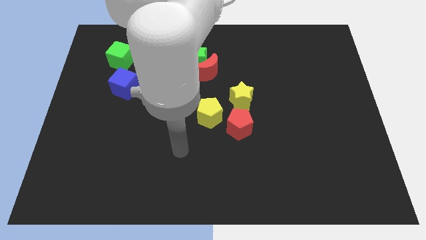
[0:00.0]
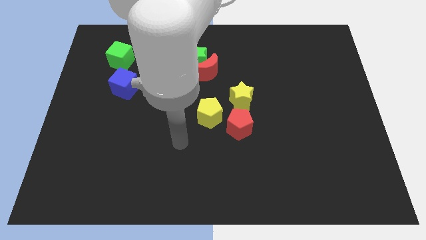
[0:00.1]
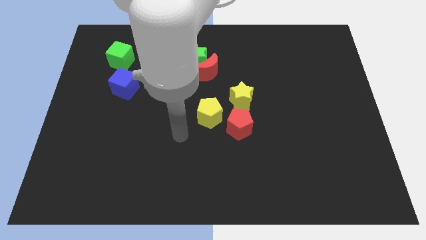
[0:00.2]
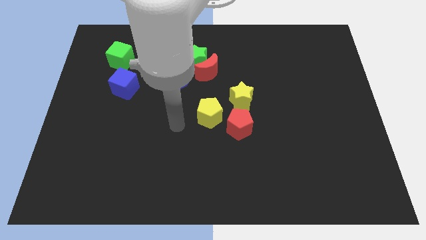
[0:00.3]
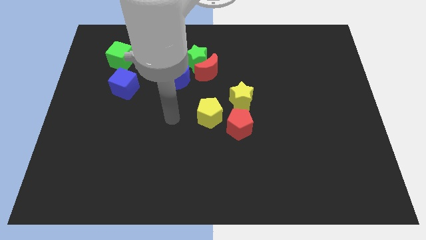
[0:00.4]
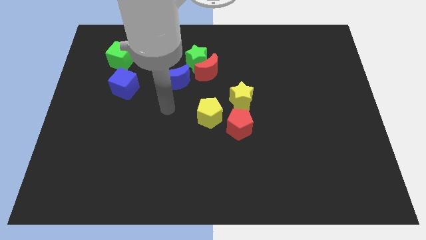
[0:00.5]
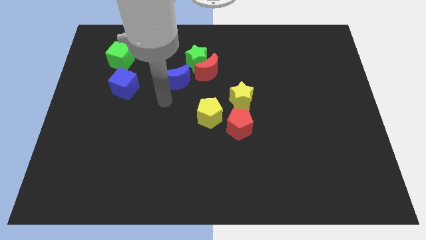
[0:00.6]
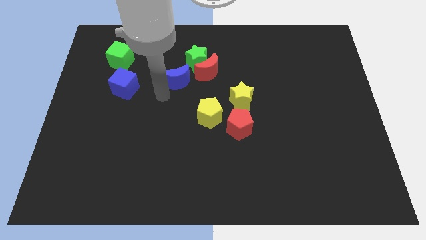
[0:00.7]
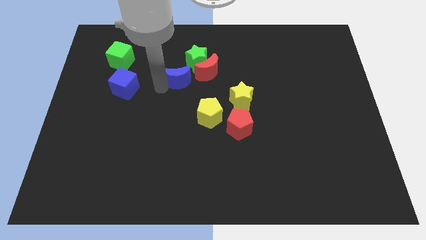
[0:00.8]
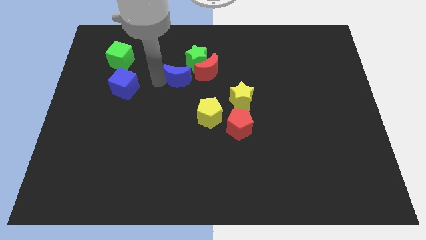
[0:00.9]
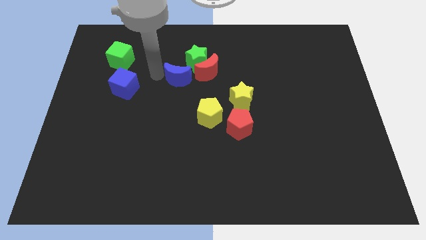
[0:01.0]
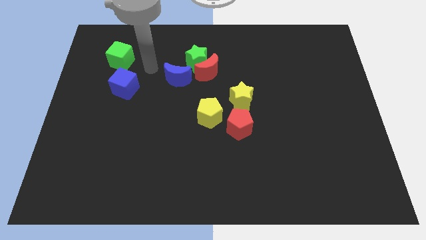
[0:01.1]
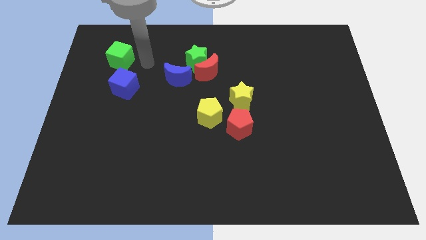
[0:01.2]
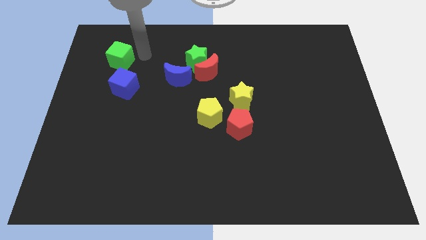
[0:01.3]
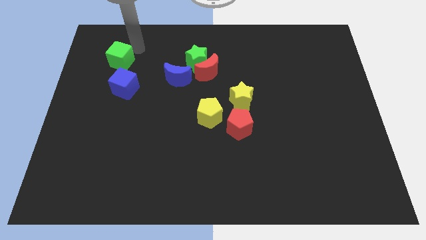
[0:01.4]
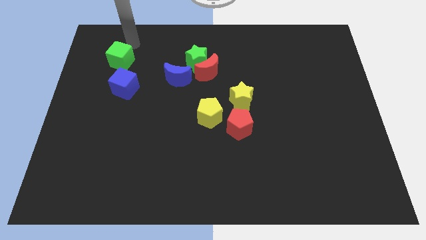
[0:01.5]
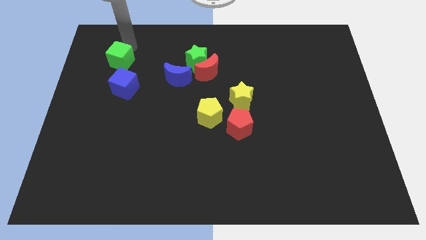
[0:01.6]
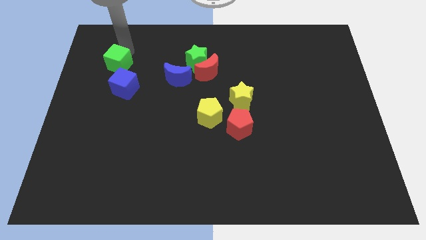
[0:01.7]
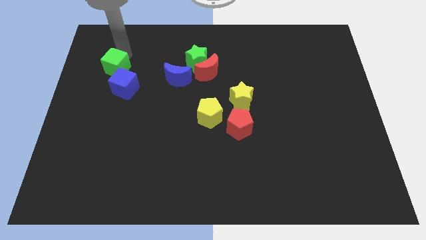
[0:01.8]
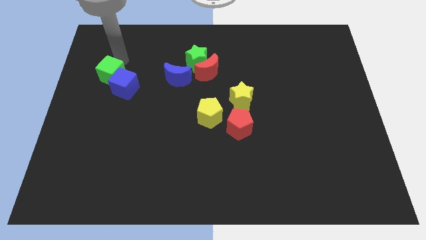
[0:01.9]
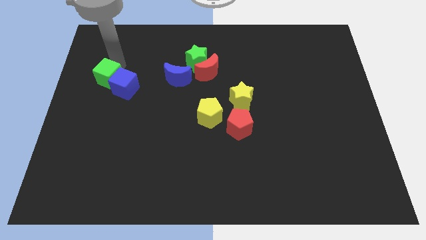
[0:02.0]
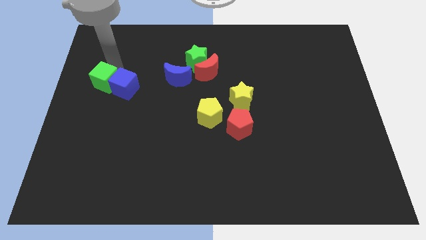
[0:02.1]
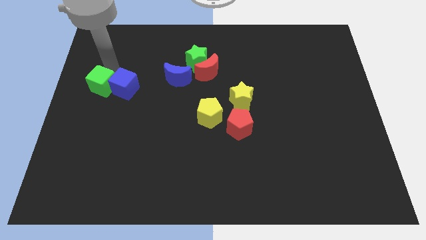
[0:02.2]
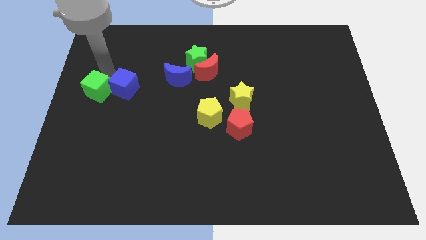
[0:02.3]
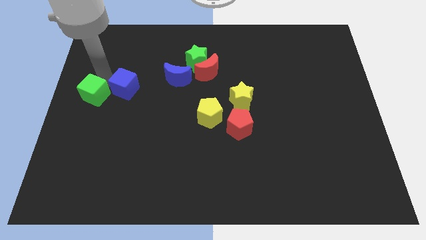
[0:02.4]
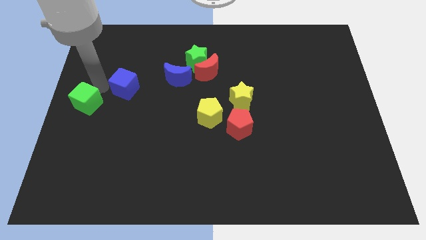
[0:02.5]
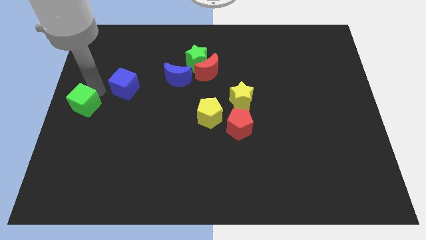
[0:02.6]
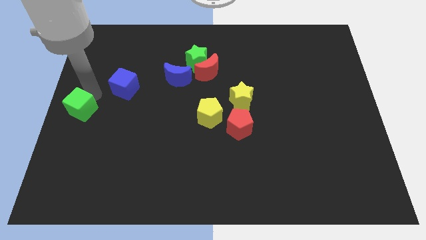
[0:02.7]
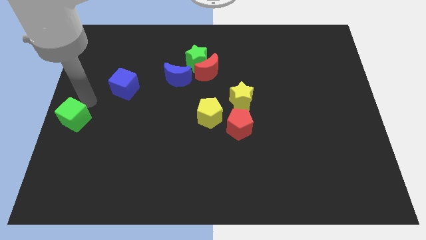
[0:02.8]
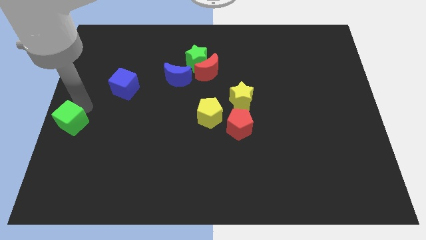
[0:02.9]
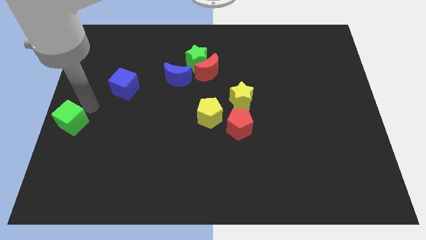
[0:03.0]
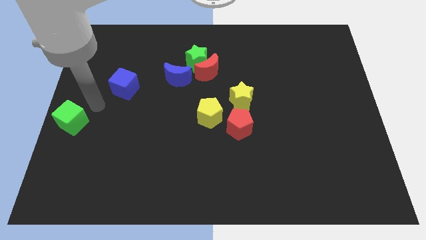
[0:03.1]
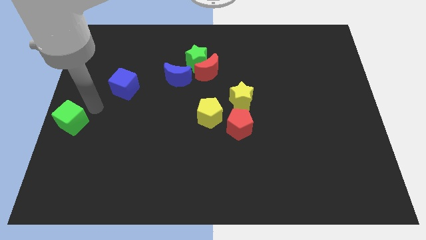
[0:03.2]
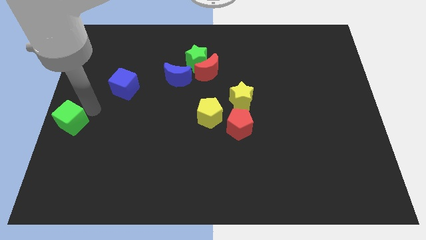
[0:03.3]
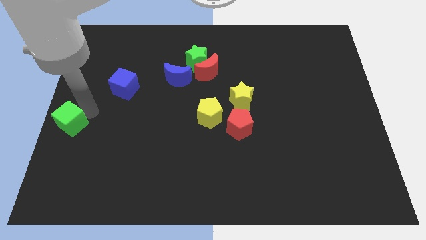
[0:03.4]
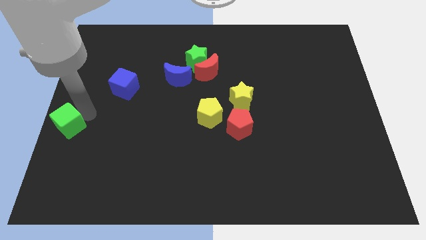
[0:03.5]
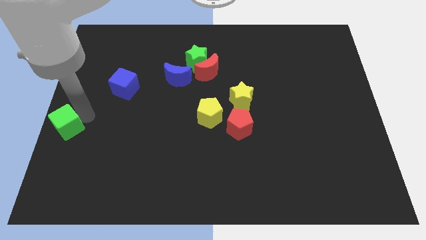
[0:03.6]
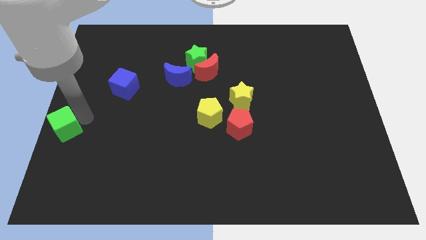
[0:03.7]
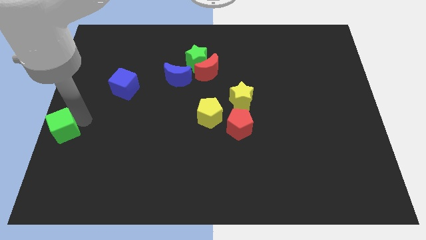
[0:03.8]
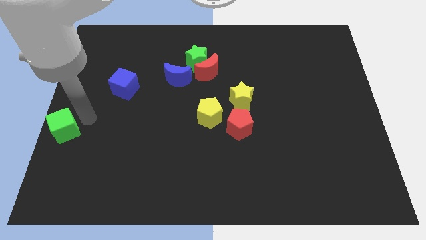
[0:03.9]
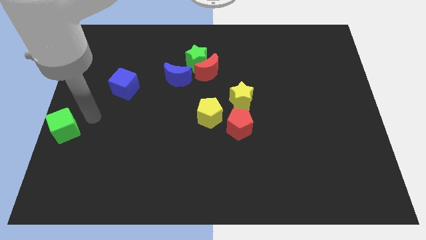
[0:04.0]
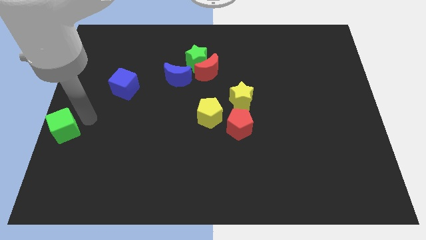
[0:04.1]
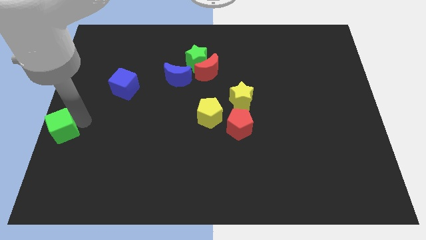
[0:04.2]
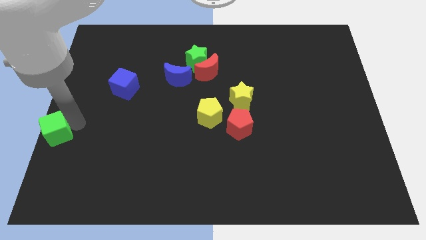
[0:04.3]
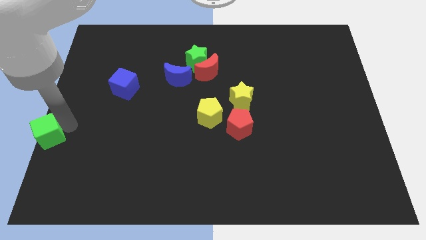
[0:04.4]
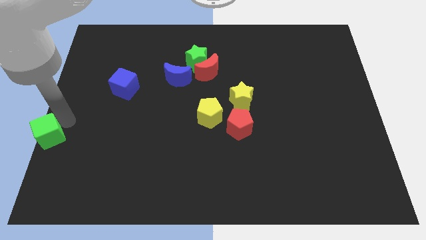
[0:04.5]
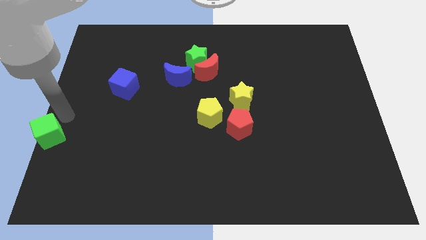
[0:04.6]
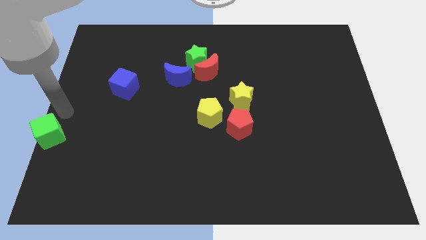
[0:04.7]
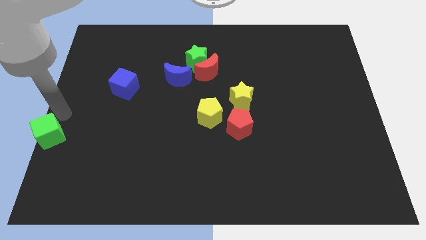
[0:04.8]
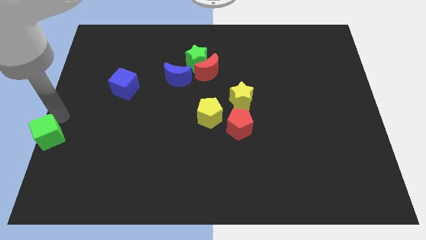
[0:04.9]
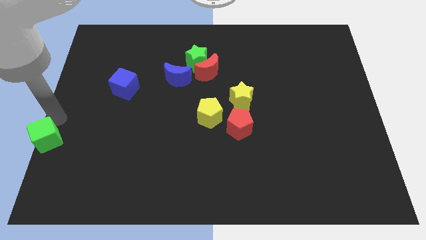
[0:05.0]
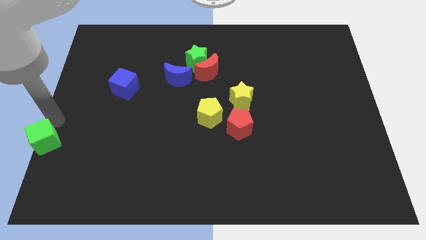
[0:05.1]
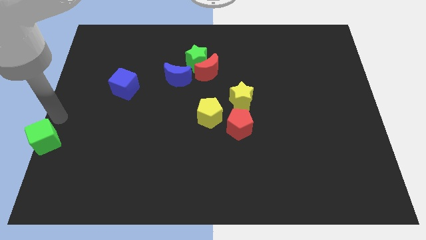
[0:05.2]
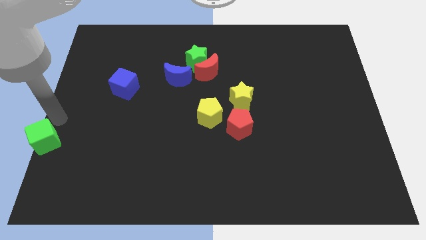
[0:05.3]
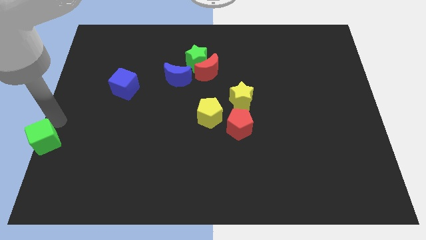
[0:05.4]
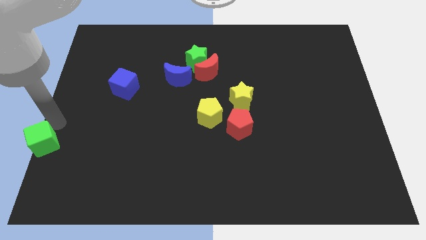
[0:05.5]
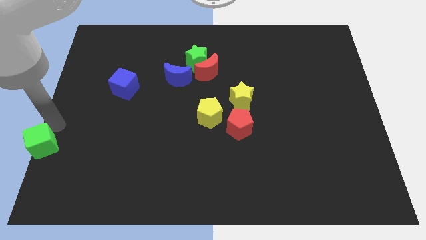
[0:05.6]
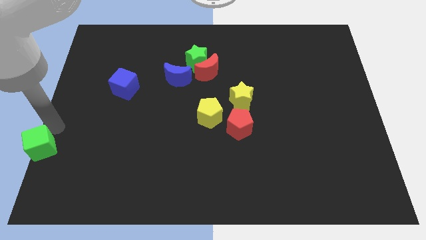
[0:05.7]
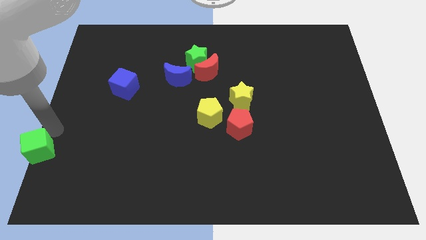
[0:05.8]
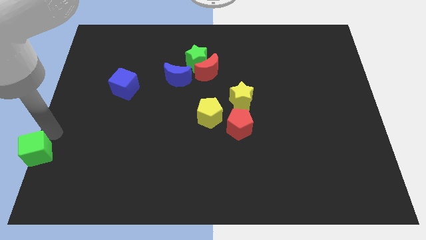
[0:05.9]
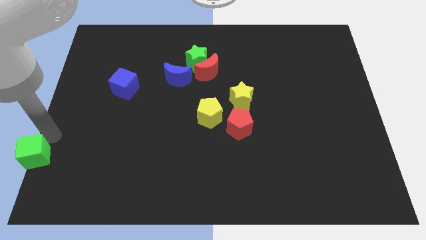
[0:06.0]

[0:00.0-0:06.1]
put the green cube to the bottom left

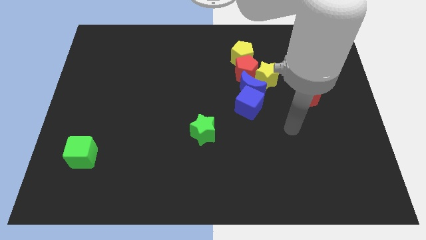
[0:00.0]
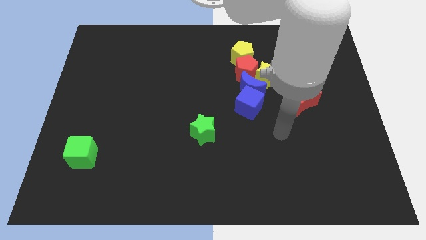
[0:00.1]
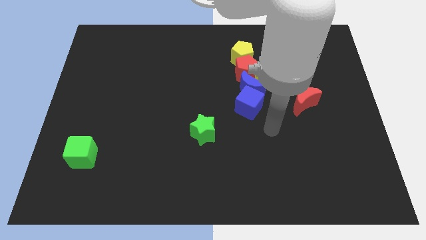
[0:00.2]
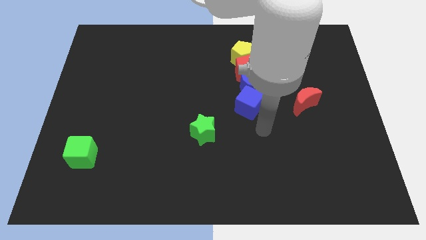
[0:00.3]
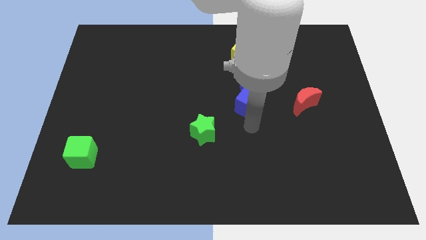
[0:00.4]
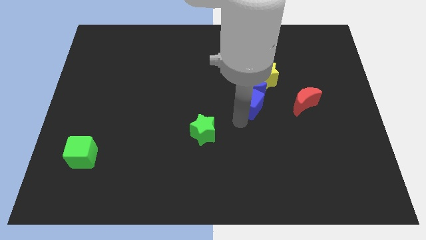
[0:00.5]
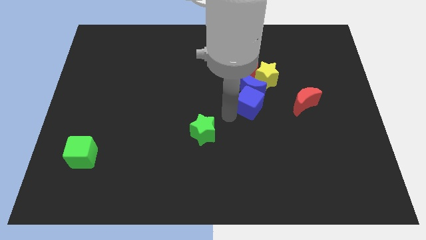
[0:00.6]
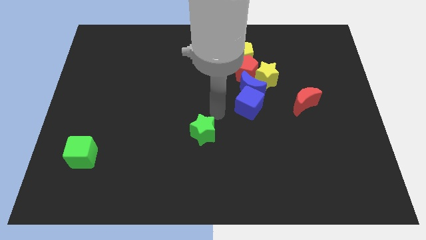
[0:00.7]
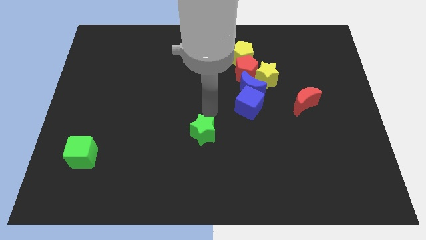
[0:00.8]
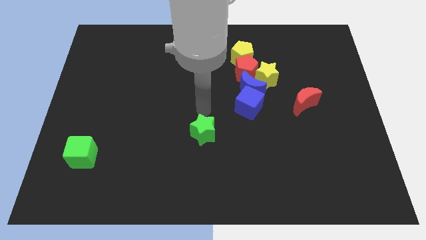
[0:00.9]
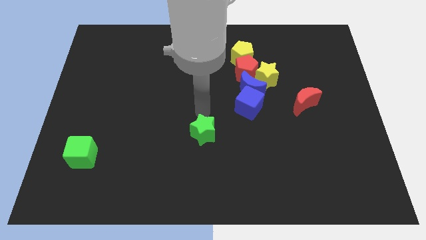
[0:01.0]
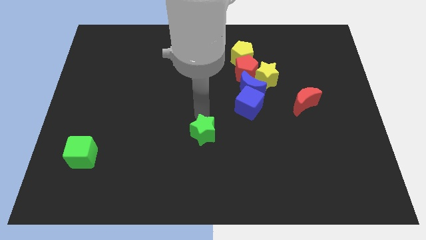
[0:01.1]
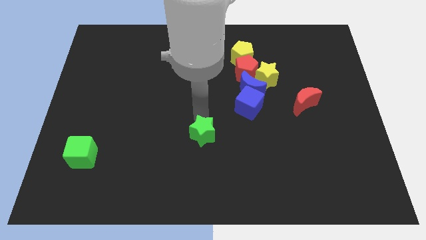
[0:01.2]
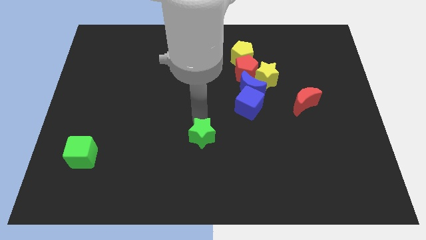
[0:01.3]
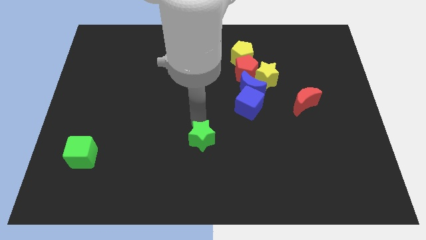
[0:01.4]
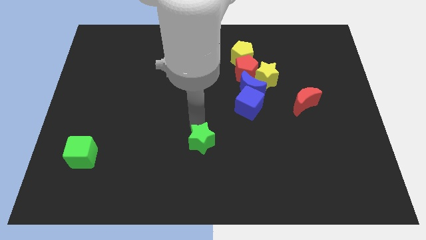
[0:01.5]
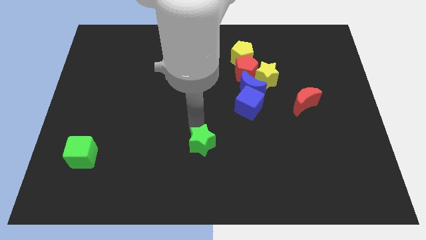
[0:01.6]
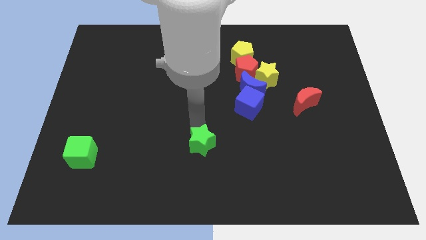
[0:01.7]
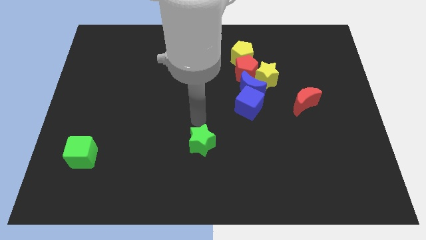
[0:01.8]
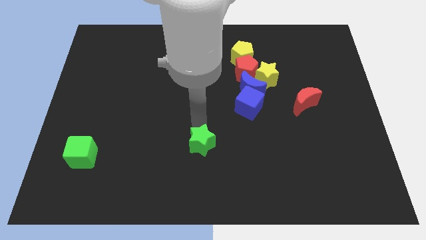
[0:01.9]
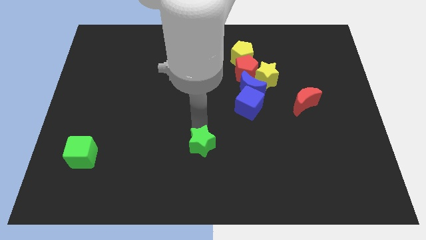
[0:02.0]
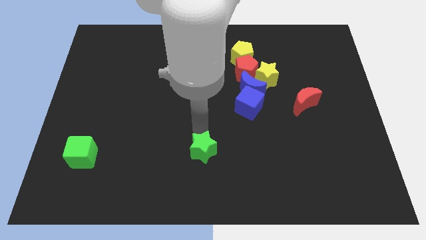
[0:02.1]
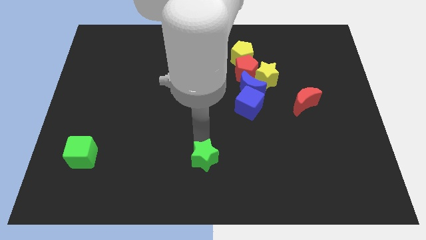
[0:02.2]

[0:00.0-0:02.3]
push the green star to the bottom
